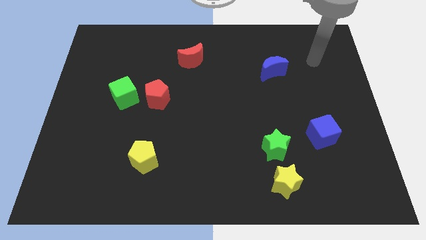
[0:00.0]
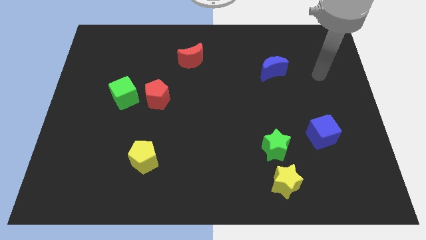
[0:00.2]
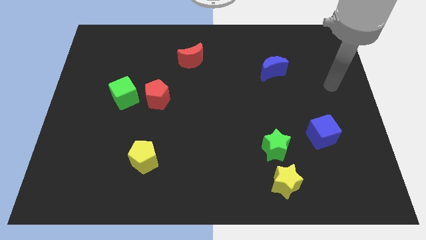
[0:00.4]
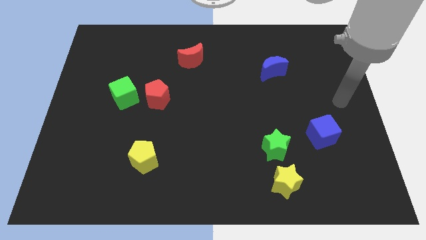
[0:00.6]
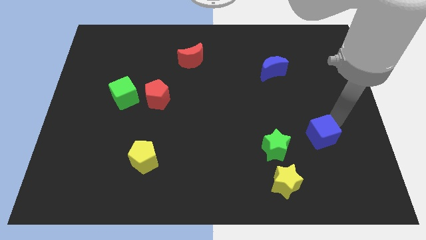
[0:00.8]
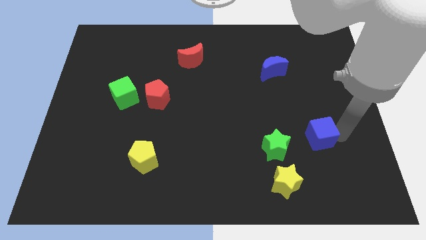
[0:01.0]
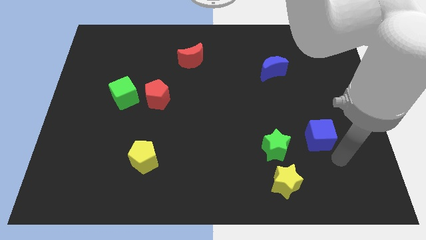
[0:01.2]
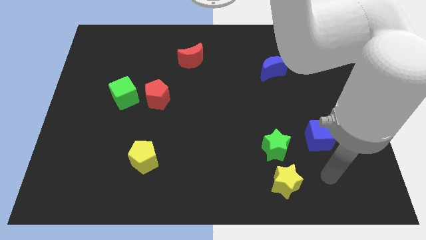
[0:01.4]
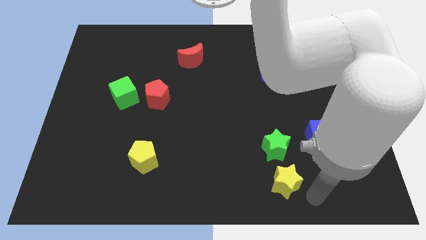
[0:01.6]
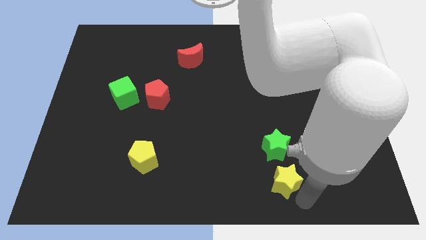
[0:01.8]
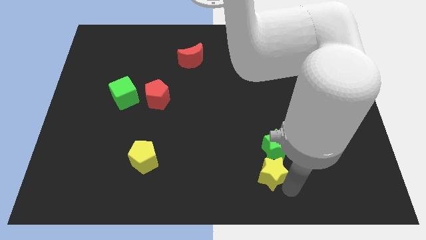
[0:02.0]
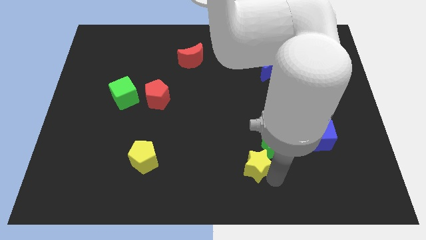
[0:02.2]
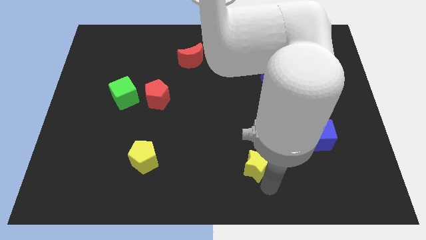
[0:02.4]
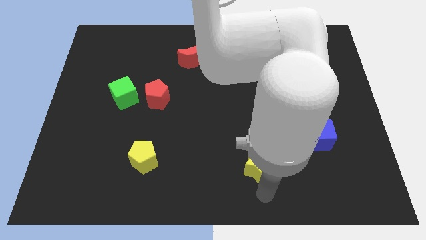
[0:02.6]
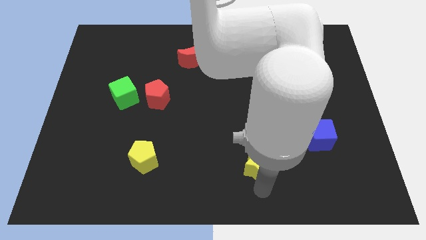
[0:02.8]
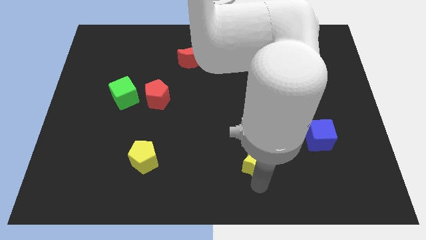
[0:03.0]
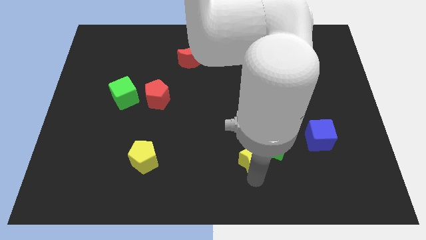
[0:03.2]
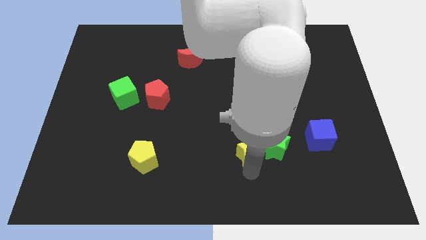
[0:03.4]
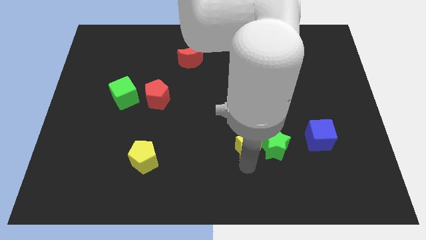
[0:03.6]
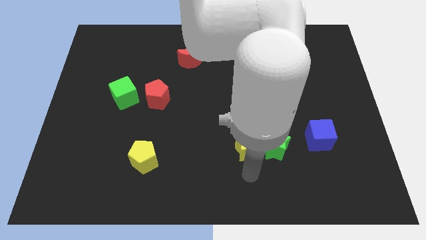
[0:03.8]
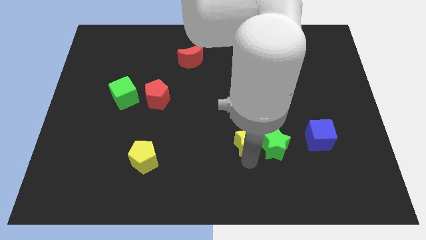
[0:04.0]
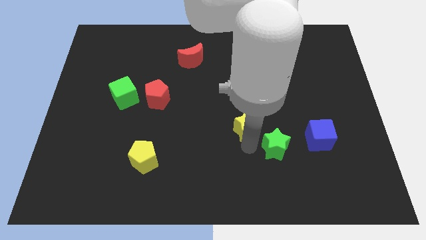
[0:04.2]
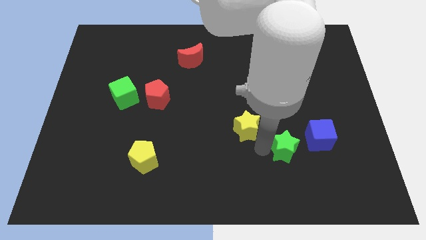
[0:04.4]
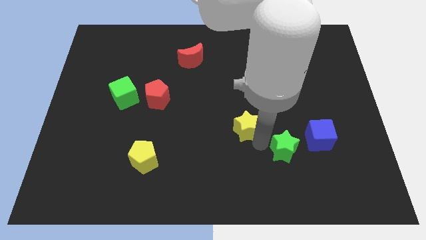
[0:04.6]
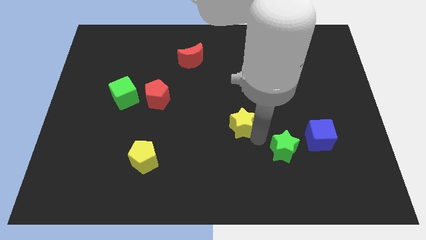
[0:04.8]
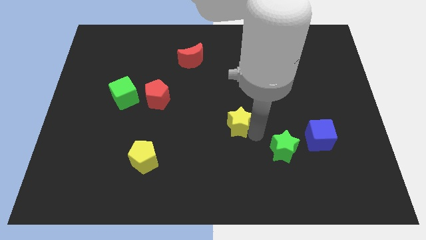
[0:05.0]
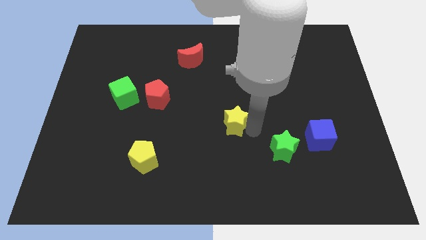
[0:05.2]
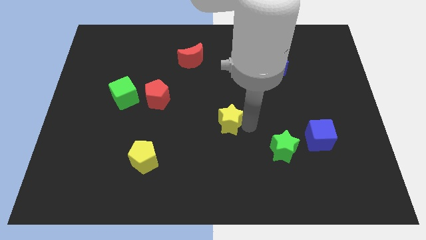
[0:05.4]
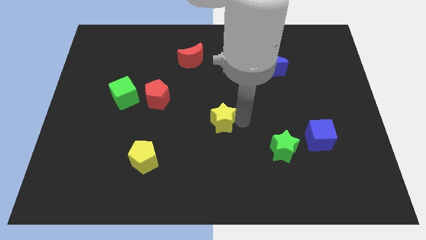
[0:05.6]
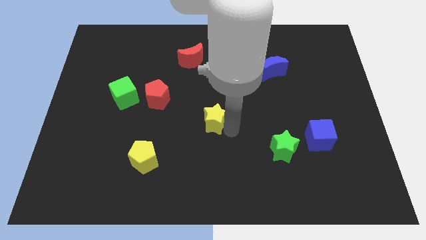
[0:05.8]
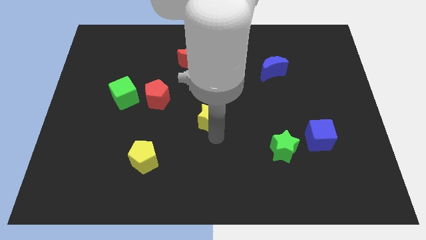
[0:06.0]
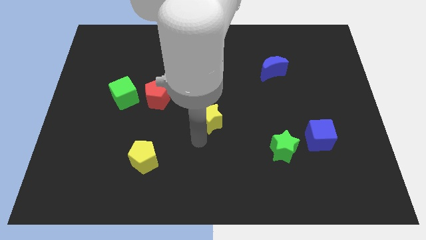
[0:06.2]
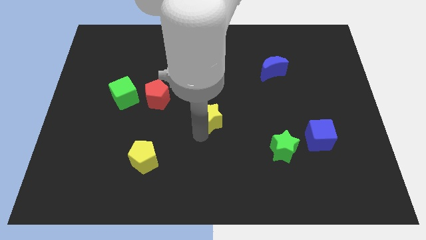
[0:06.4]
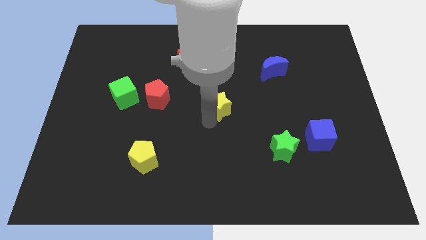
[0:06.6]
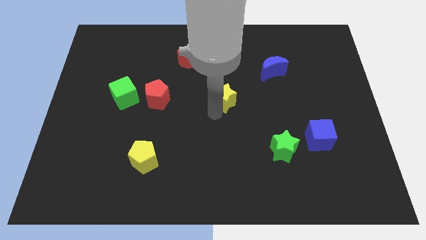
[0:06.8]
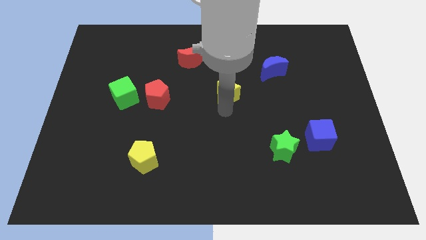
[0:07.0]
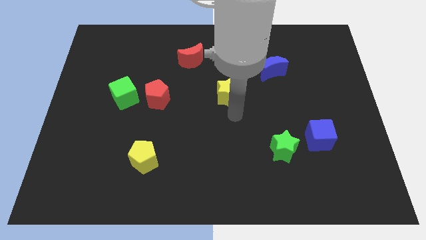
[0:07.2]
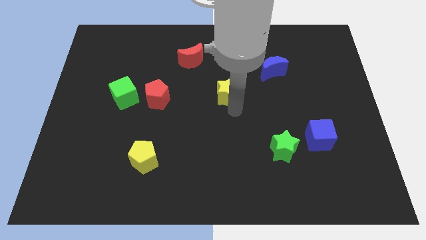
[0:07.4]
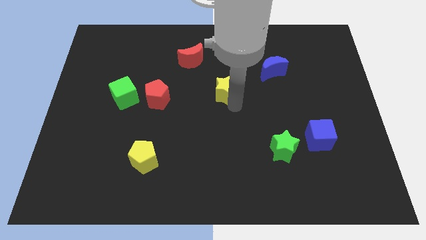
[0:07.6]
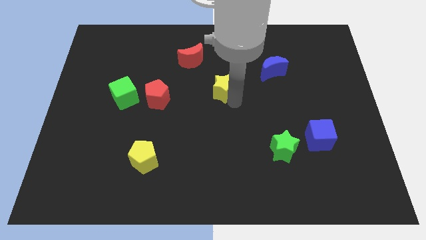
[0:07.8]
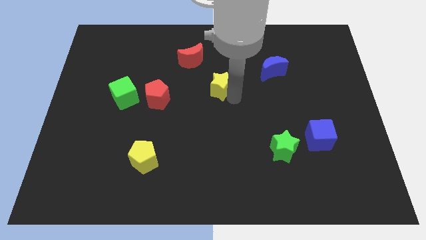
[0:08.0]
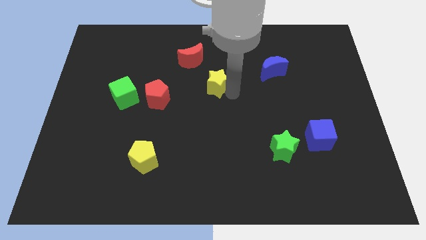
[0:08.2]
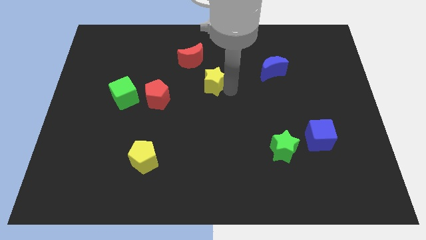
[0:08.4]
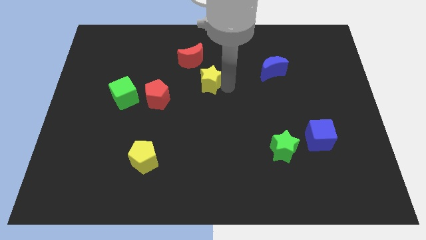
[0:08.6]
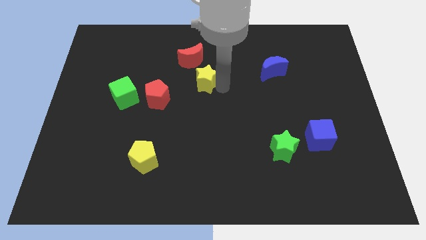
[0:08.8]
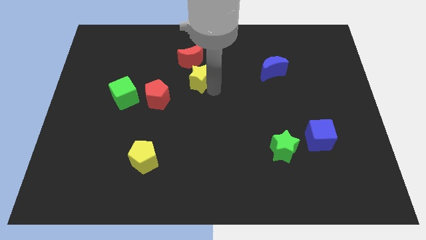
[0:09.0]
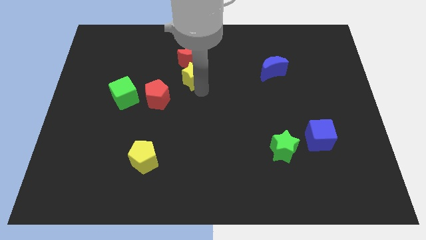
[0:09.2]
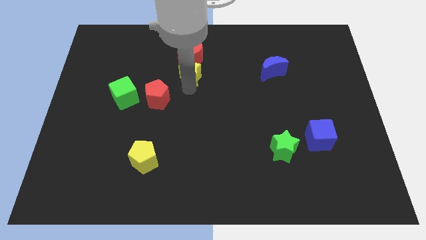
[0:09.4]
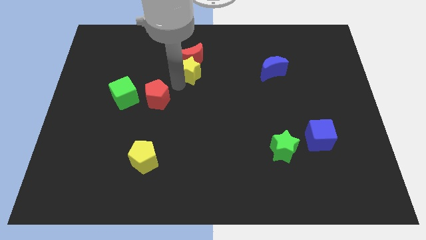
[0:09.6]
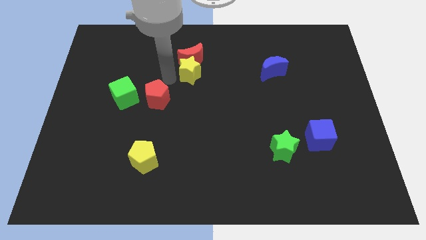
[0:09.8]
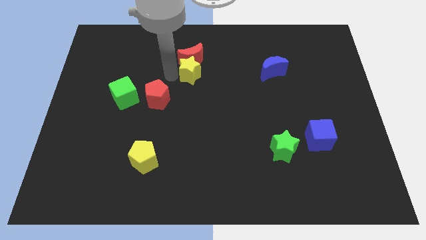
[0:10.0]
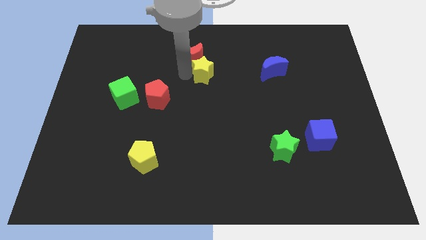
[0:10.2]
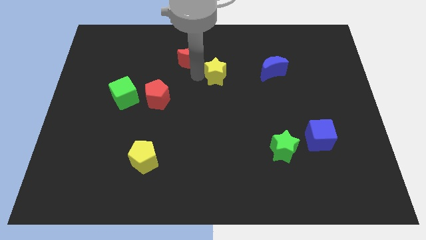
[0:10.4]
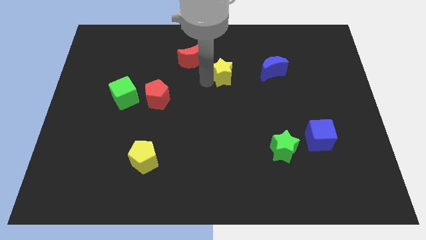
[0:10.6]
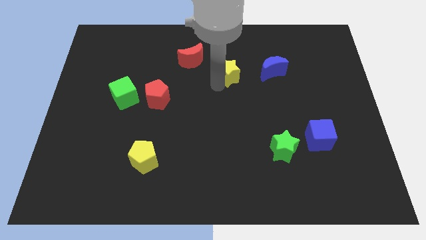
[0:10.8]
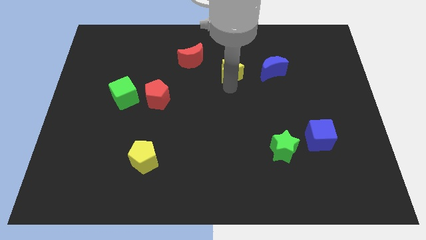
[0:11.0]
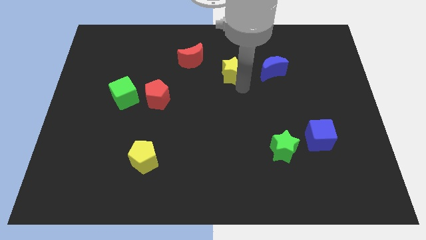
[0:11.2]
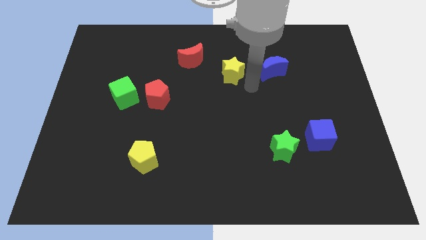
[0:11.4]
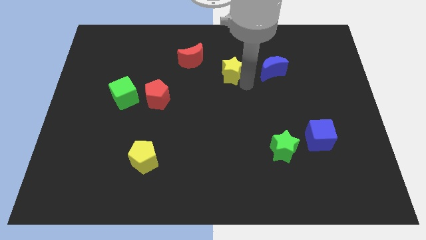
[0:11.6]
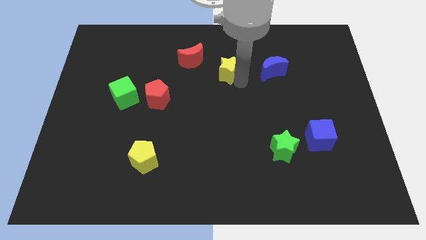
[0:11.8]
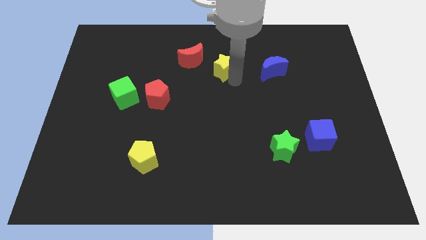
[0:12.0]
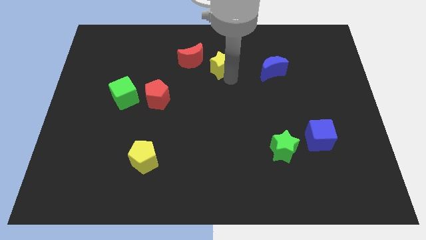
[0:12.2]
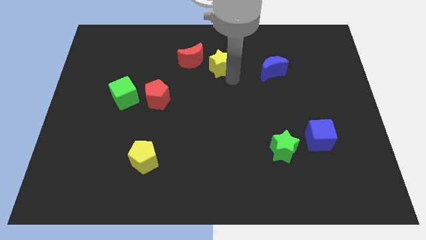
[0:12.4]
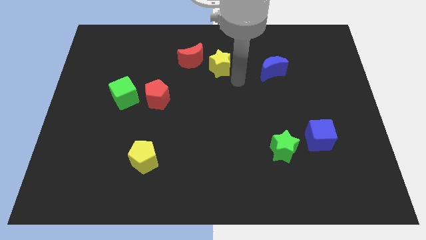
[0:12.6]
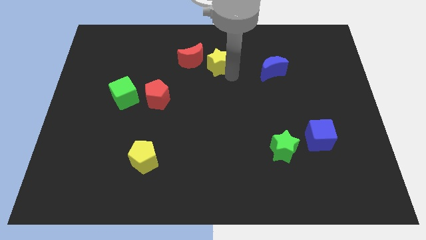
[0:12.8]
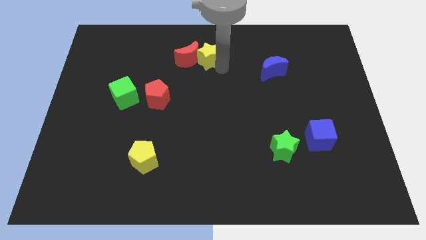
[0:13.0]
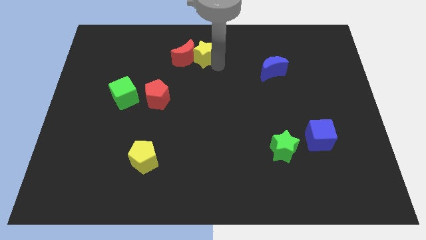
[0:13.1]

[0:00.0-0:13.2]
slide the yellow star to the top side
